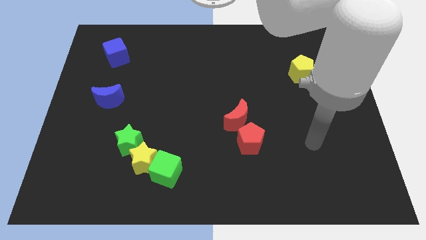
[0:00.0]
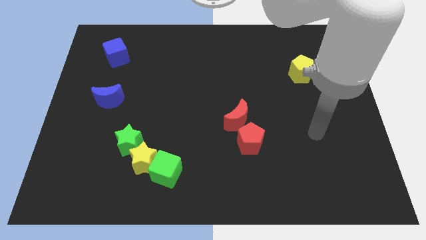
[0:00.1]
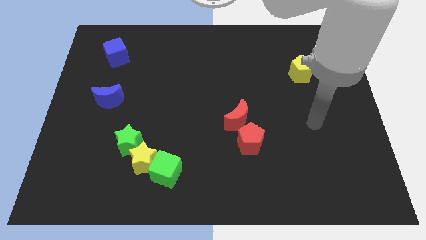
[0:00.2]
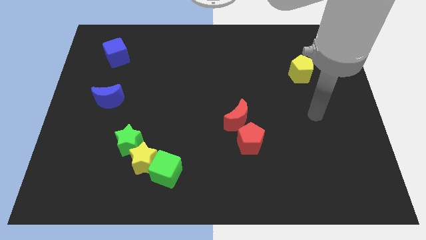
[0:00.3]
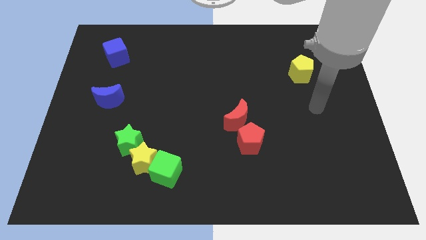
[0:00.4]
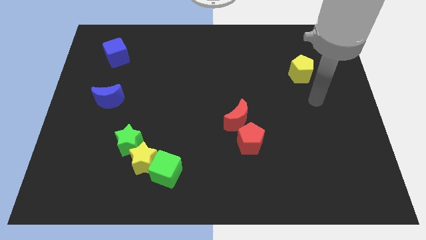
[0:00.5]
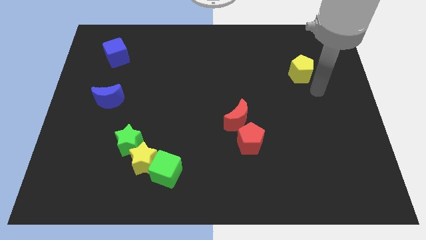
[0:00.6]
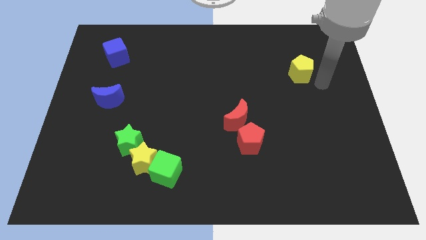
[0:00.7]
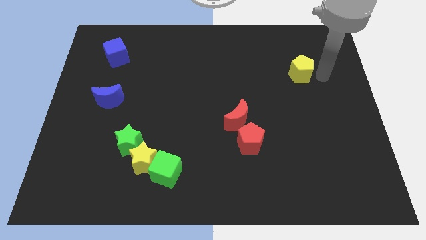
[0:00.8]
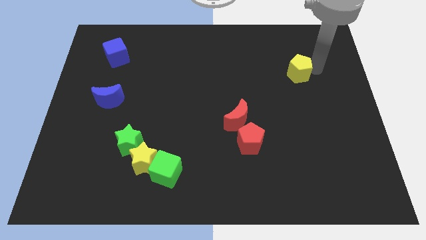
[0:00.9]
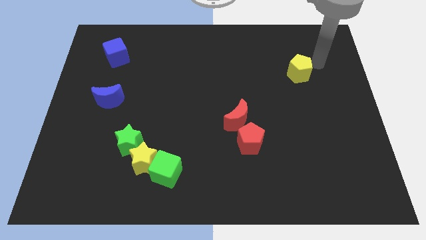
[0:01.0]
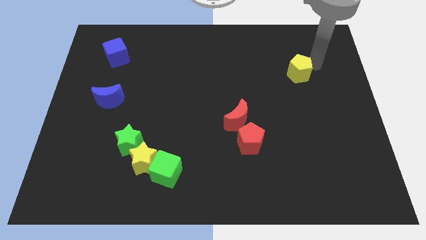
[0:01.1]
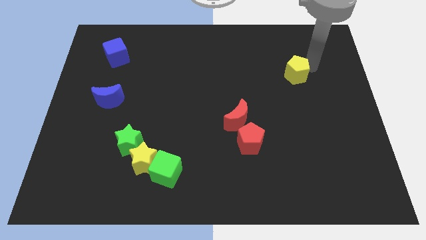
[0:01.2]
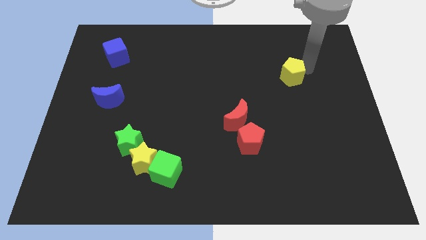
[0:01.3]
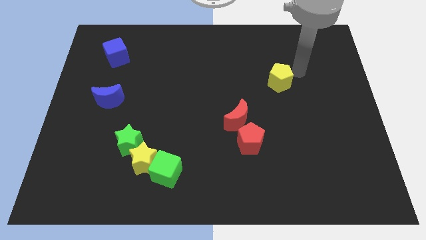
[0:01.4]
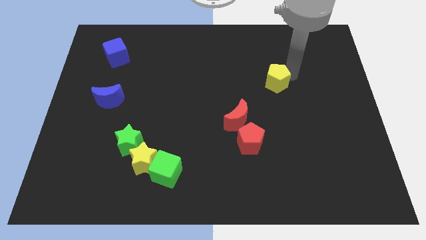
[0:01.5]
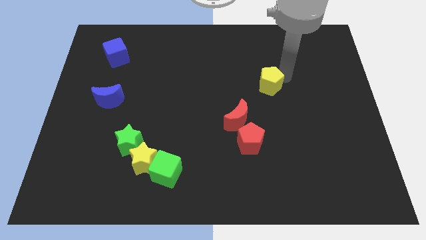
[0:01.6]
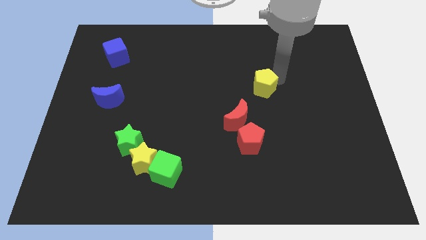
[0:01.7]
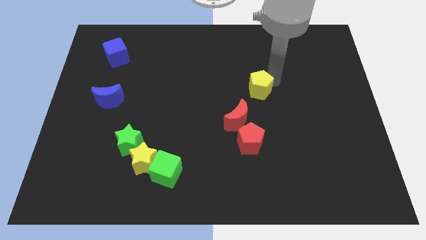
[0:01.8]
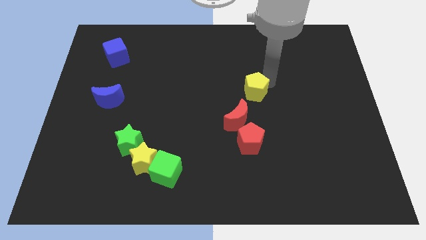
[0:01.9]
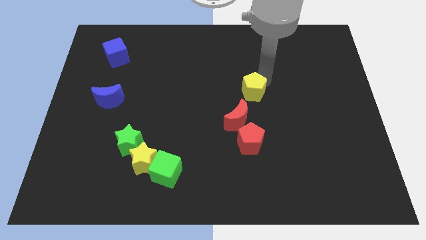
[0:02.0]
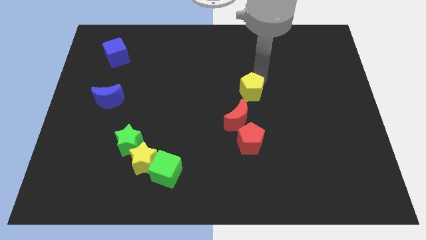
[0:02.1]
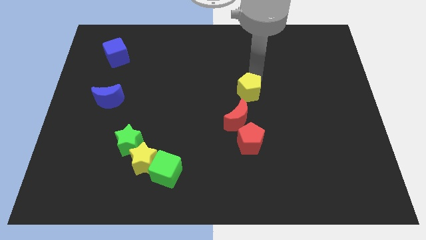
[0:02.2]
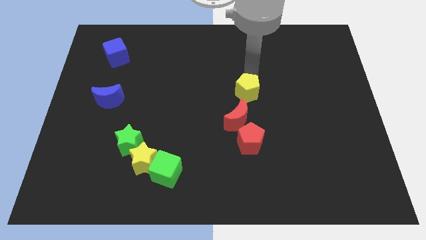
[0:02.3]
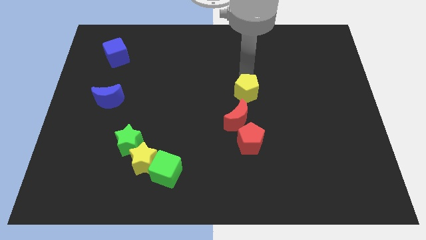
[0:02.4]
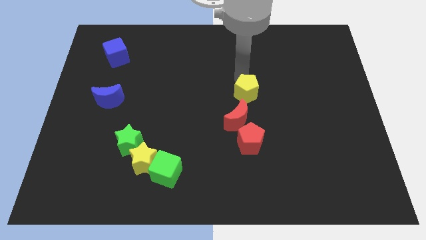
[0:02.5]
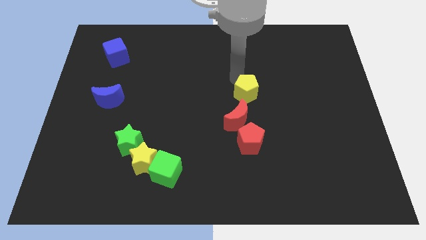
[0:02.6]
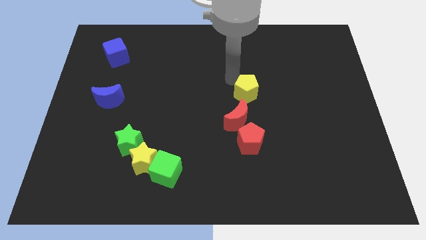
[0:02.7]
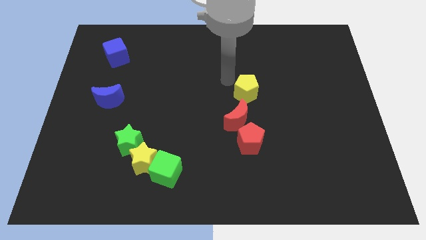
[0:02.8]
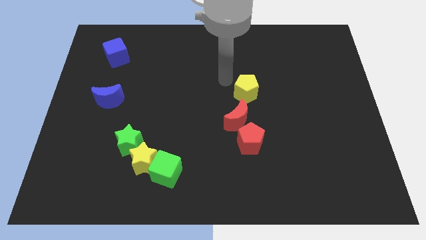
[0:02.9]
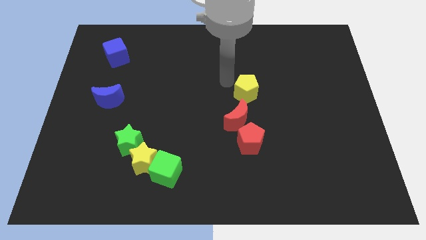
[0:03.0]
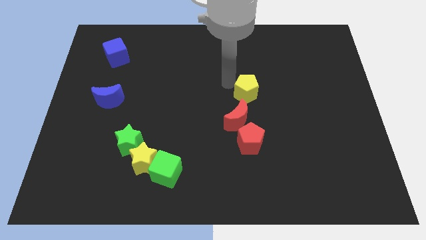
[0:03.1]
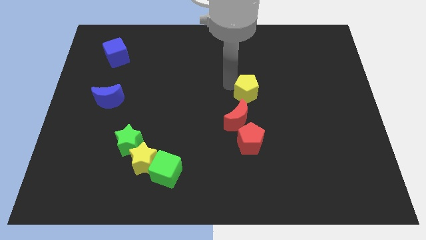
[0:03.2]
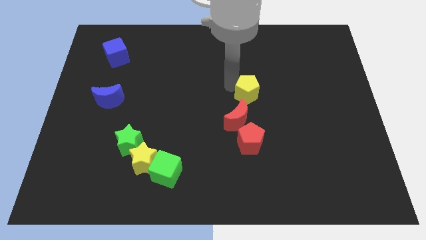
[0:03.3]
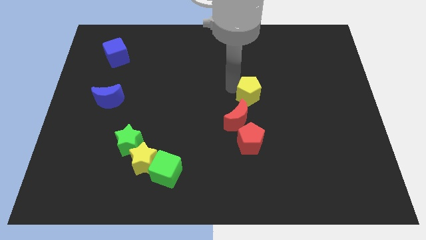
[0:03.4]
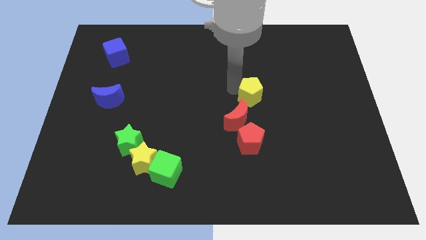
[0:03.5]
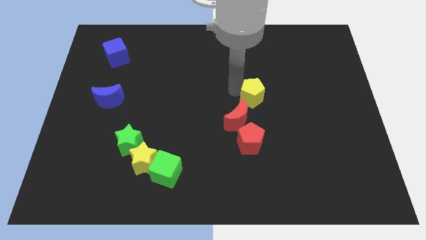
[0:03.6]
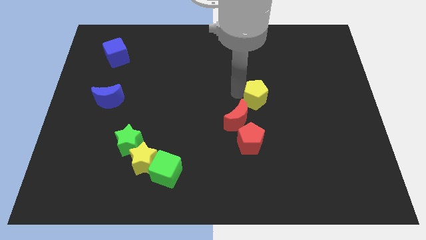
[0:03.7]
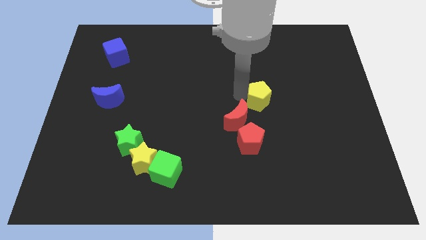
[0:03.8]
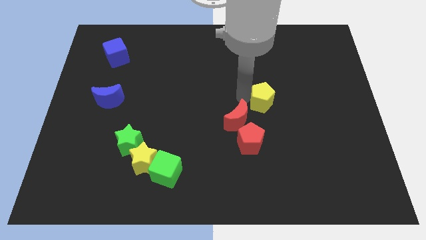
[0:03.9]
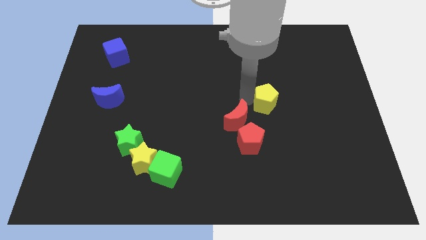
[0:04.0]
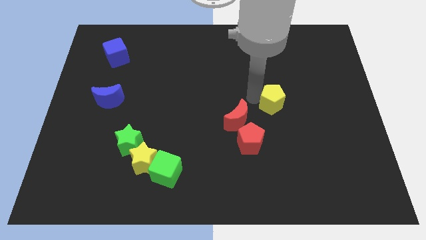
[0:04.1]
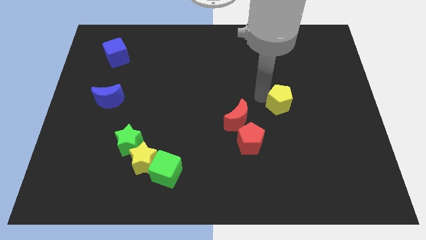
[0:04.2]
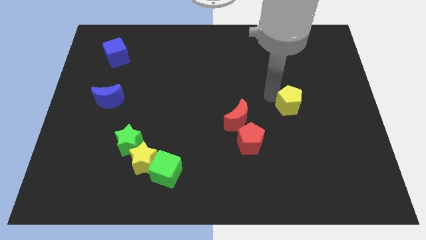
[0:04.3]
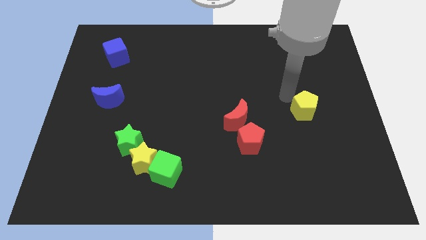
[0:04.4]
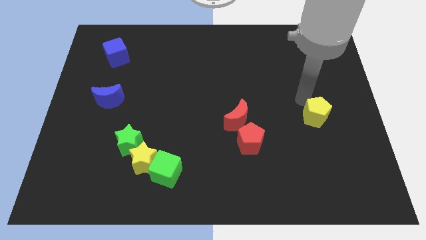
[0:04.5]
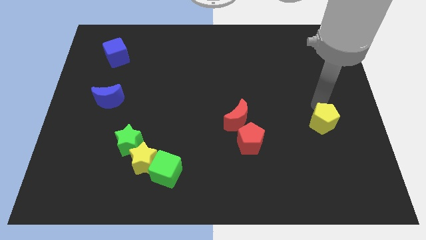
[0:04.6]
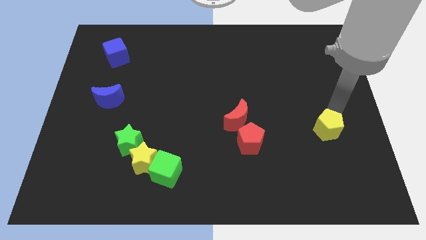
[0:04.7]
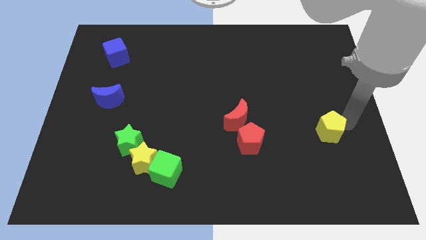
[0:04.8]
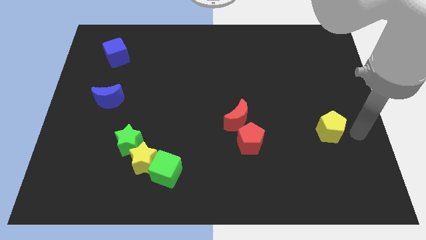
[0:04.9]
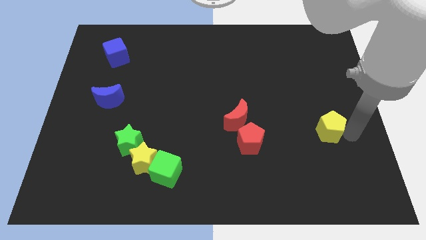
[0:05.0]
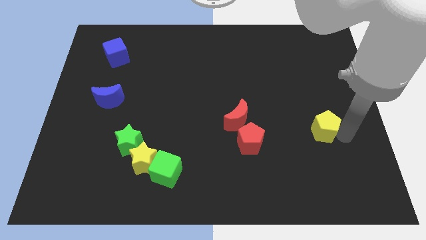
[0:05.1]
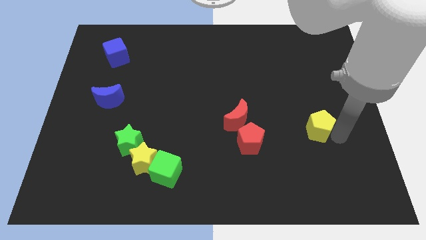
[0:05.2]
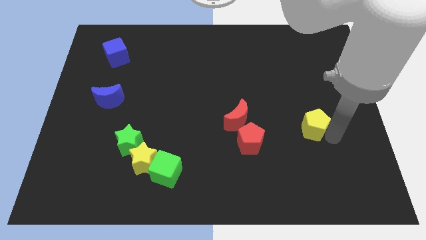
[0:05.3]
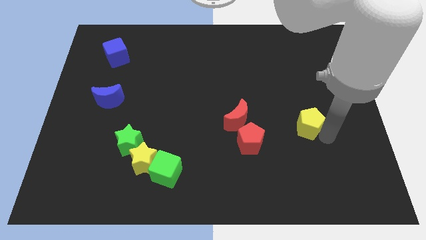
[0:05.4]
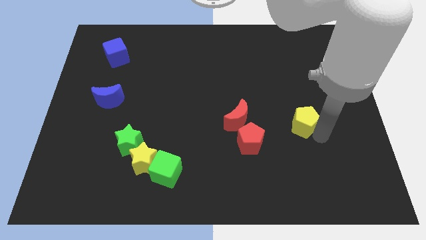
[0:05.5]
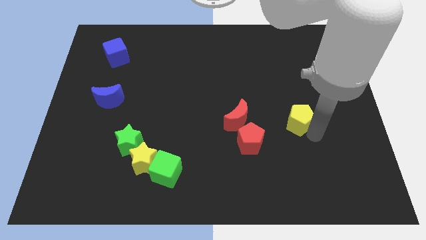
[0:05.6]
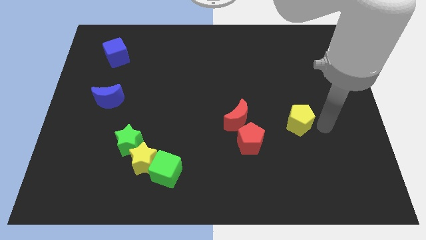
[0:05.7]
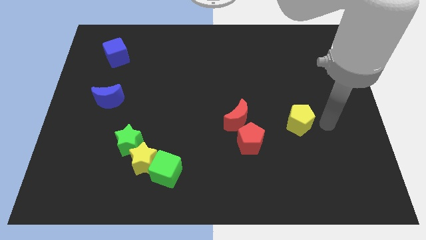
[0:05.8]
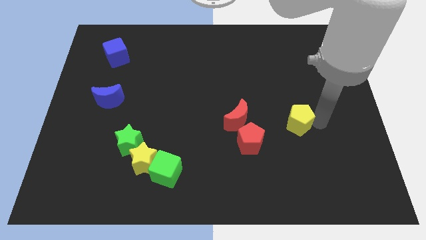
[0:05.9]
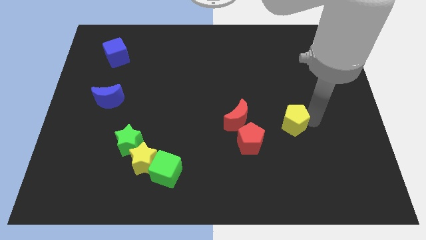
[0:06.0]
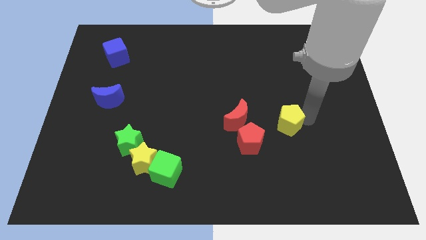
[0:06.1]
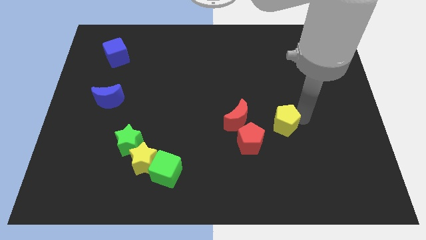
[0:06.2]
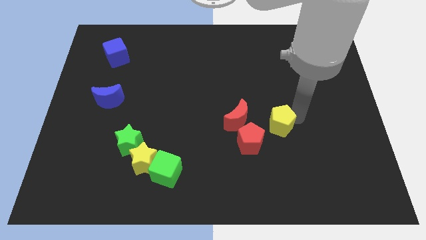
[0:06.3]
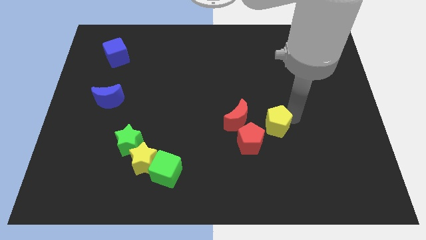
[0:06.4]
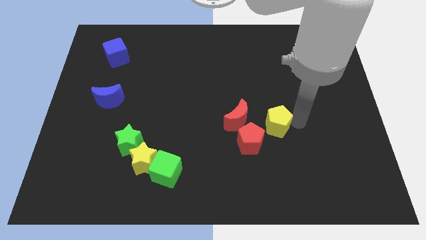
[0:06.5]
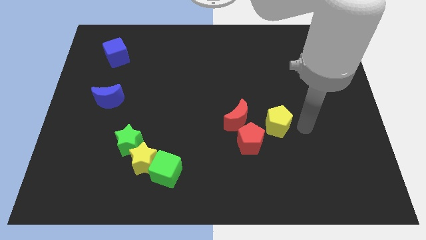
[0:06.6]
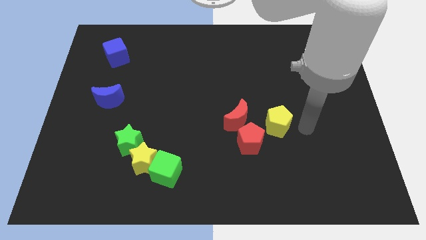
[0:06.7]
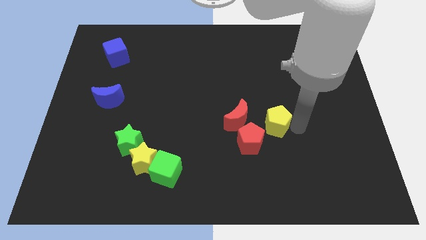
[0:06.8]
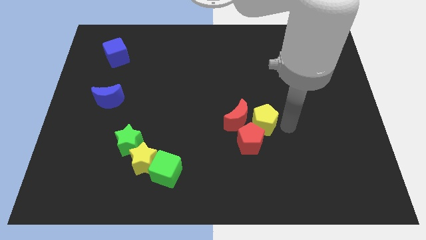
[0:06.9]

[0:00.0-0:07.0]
push the yellow pentagon next to the red moon

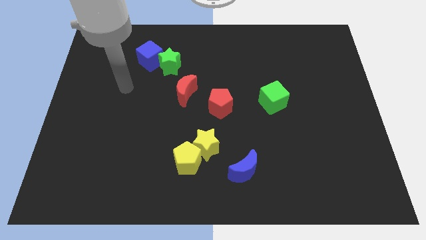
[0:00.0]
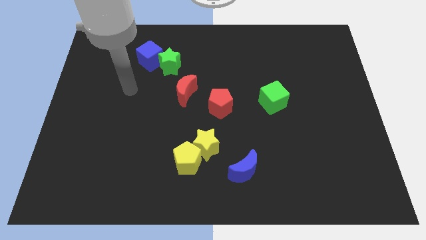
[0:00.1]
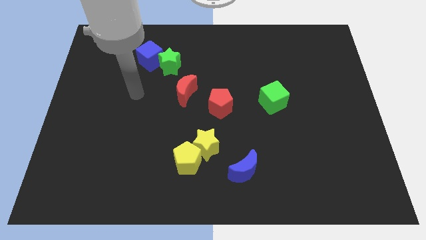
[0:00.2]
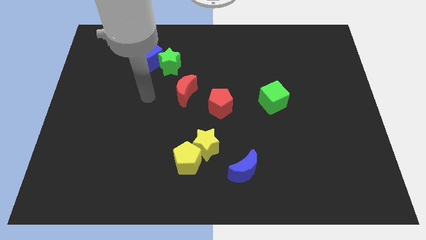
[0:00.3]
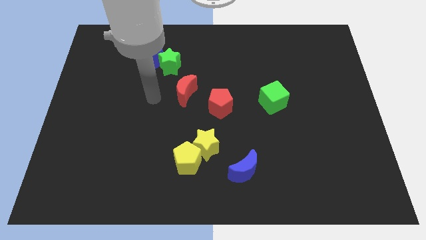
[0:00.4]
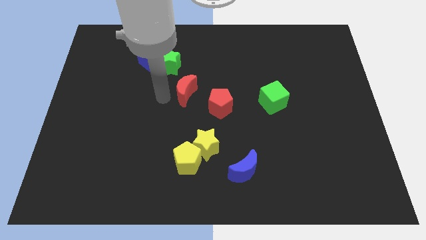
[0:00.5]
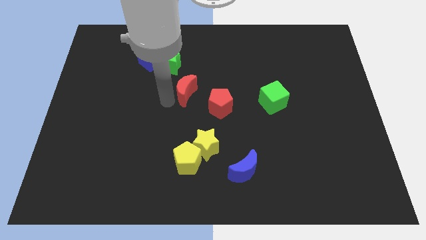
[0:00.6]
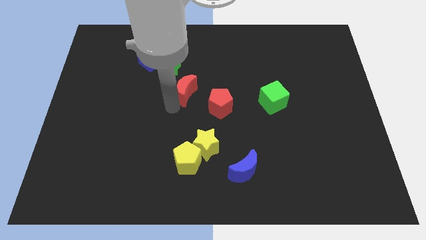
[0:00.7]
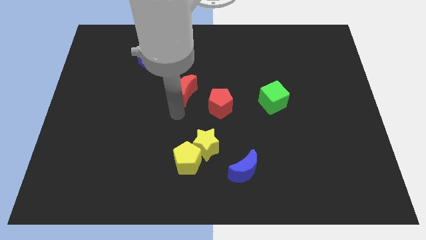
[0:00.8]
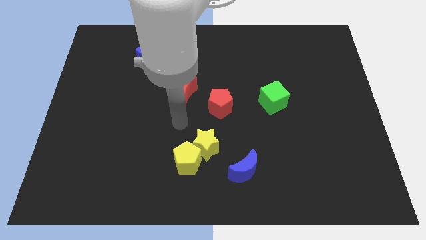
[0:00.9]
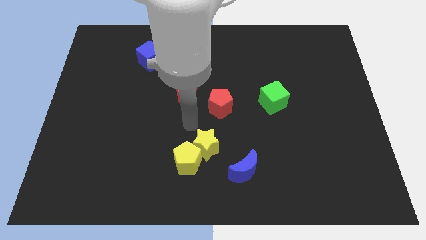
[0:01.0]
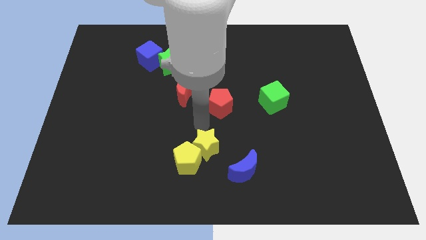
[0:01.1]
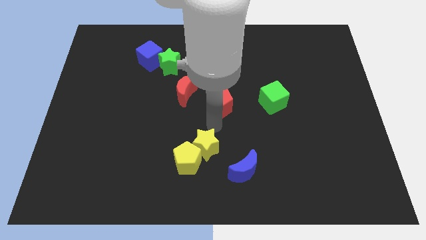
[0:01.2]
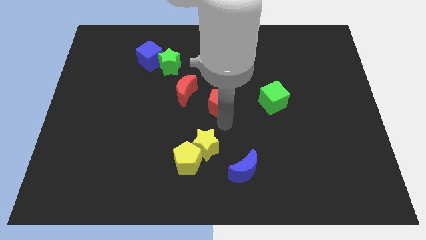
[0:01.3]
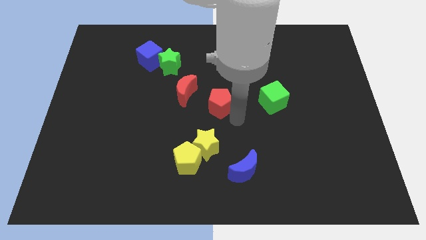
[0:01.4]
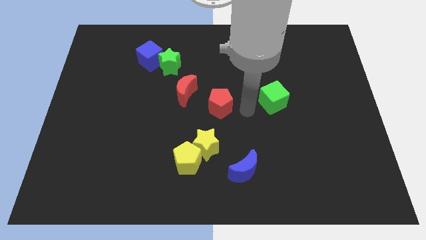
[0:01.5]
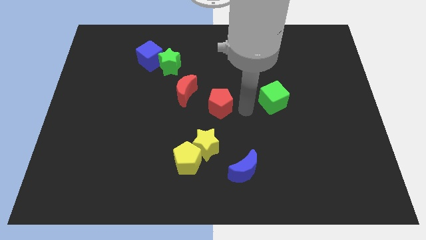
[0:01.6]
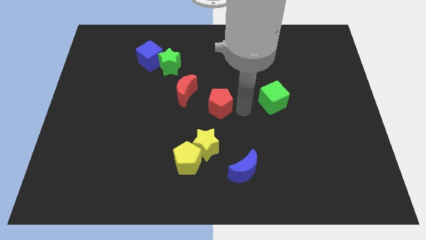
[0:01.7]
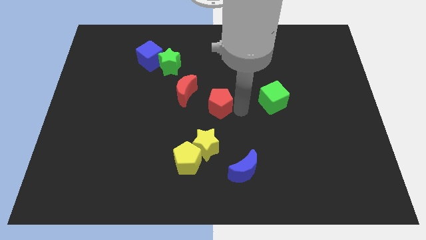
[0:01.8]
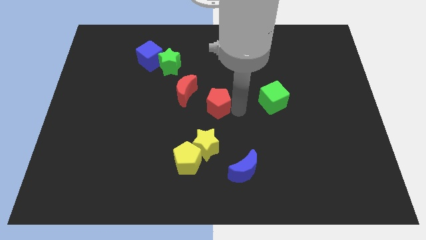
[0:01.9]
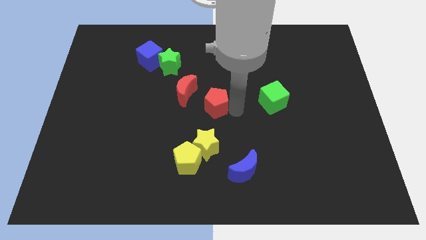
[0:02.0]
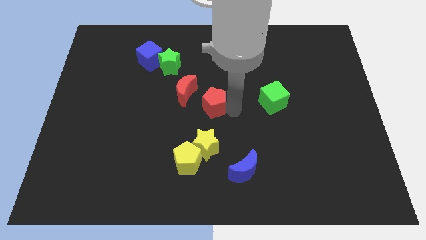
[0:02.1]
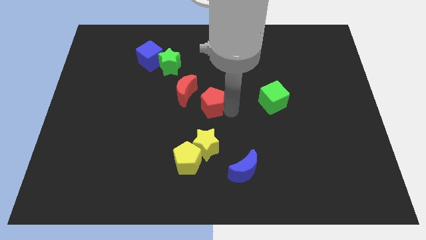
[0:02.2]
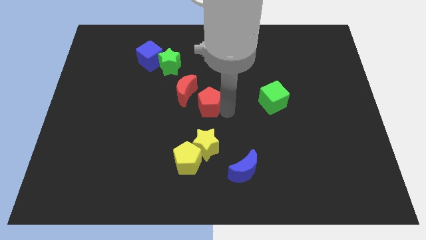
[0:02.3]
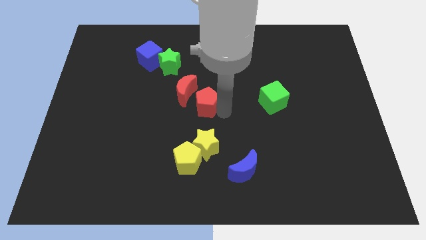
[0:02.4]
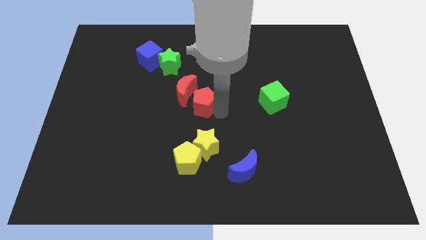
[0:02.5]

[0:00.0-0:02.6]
put the red pentagon close to the red moon
